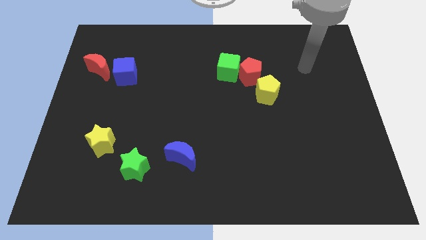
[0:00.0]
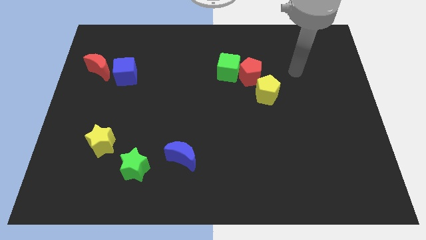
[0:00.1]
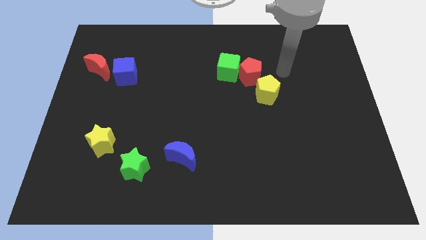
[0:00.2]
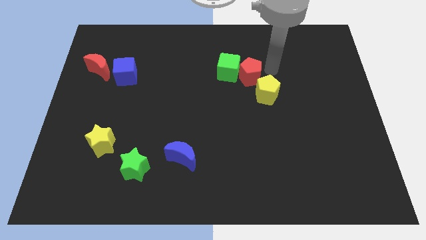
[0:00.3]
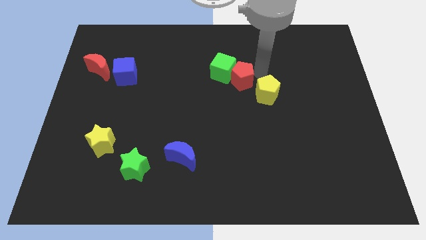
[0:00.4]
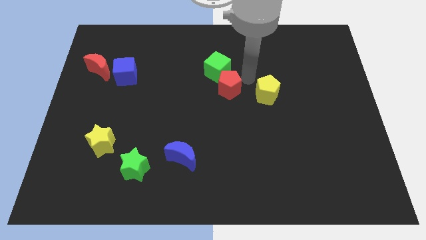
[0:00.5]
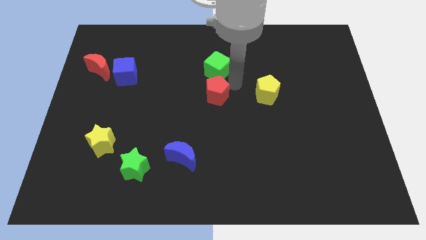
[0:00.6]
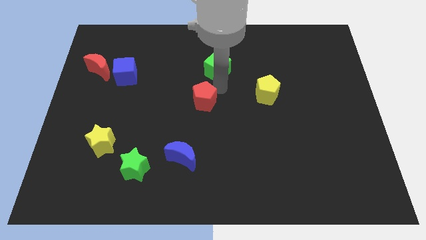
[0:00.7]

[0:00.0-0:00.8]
move the green cube away from the red pentagon

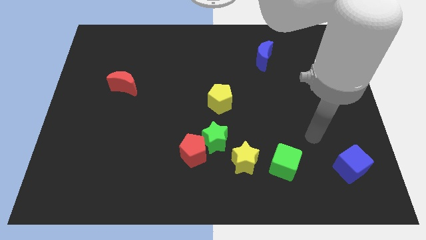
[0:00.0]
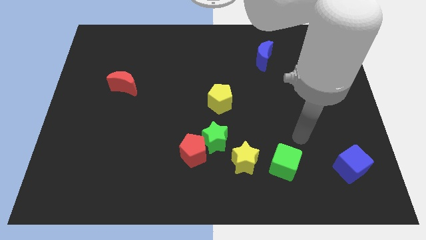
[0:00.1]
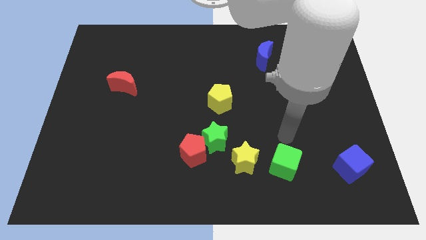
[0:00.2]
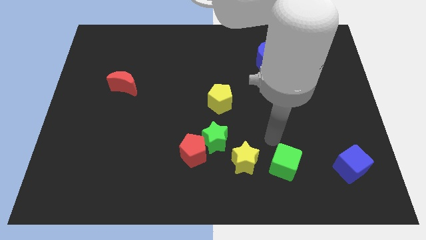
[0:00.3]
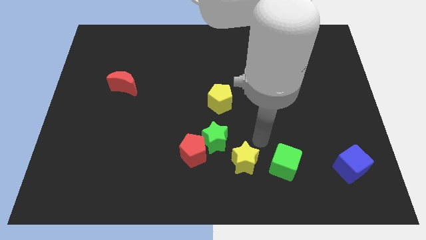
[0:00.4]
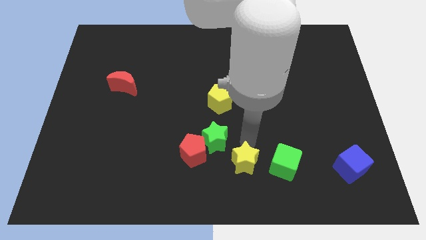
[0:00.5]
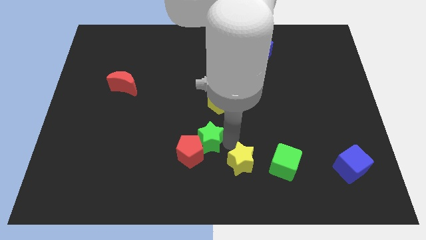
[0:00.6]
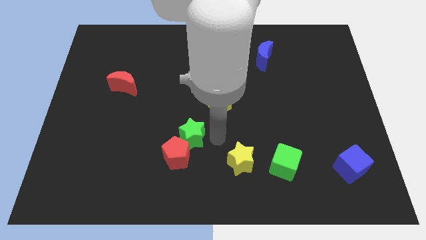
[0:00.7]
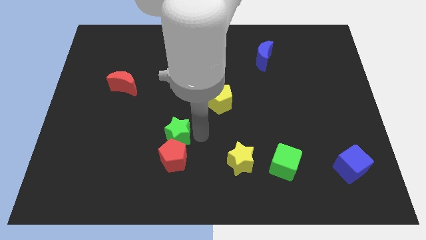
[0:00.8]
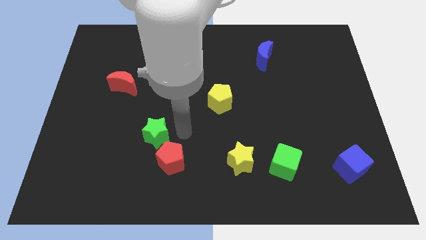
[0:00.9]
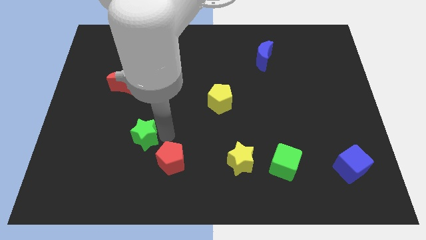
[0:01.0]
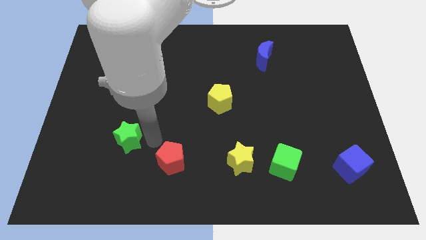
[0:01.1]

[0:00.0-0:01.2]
separate the red pentagon from the green star

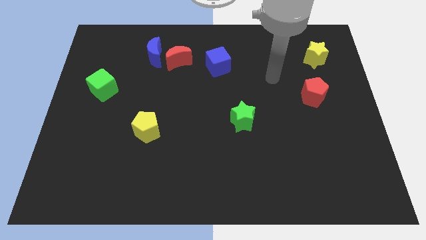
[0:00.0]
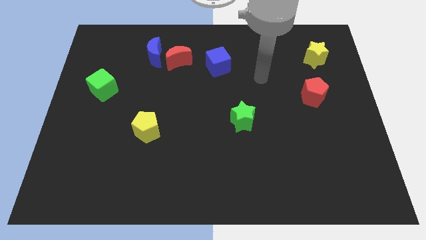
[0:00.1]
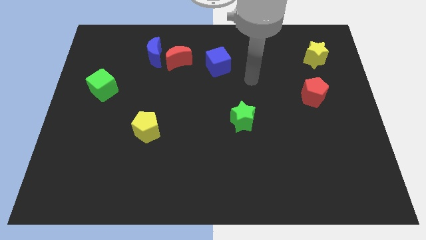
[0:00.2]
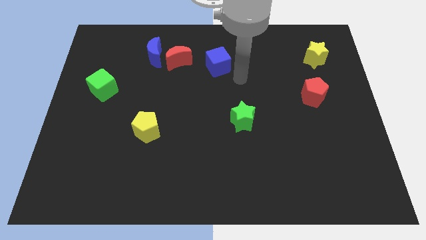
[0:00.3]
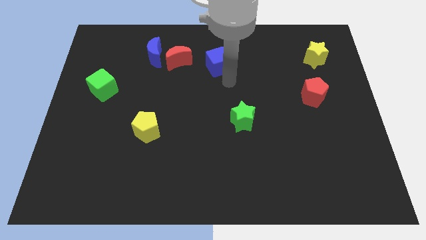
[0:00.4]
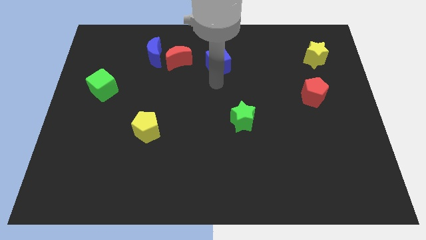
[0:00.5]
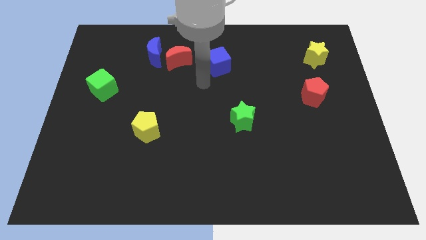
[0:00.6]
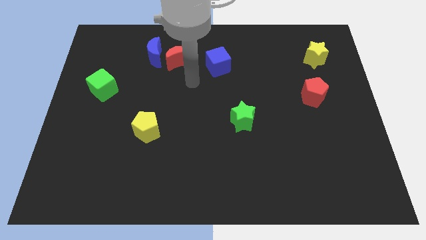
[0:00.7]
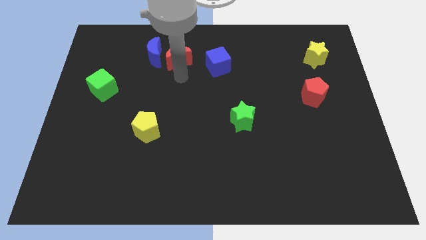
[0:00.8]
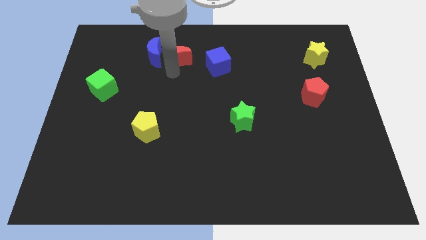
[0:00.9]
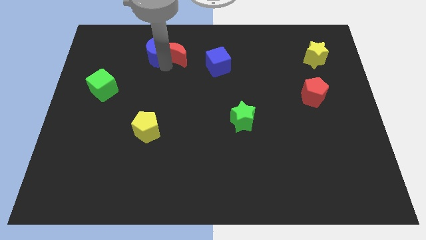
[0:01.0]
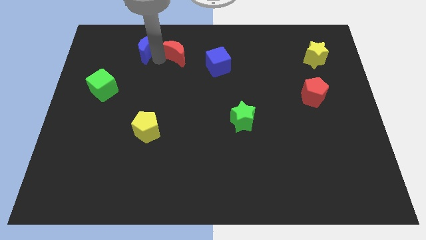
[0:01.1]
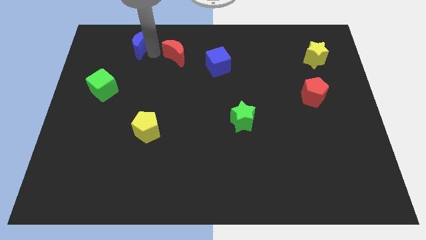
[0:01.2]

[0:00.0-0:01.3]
pull the red moon apart from the blue moon

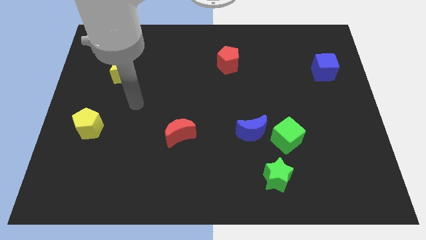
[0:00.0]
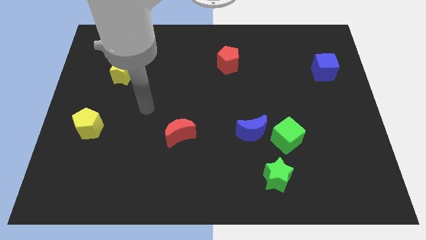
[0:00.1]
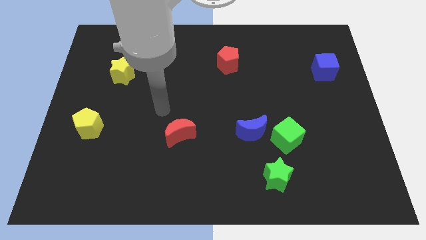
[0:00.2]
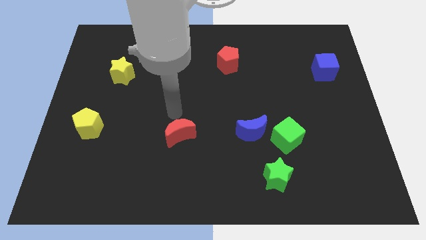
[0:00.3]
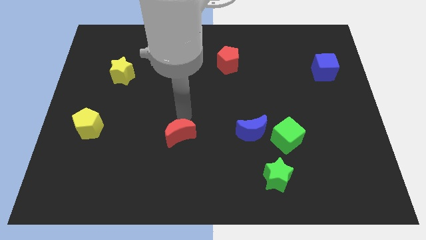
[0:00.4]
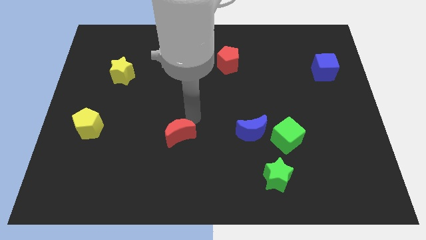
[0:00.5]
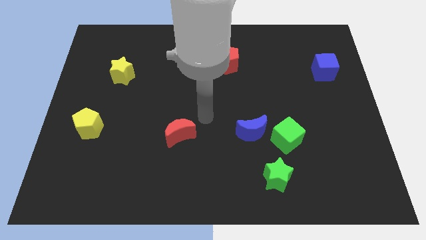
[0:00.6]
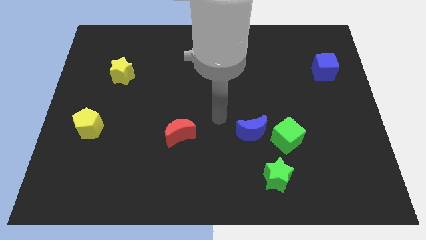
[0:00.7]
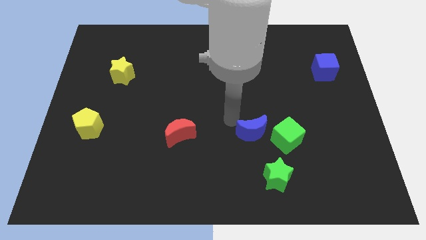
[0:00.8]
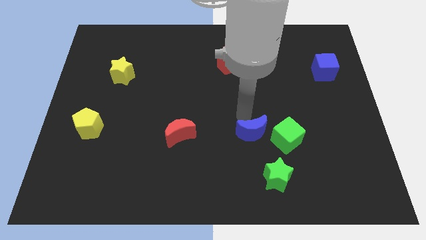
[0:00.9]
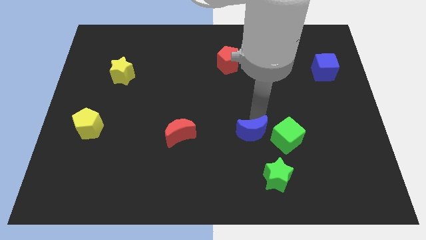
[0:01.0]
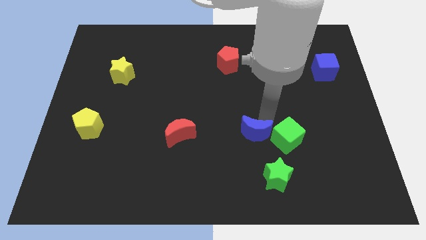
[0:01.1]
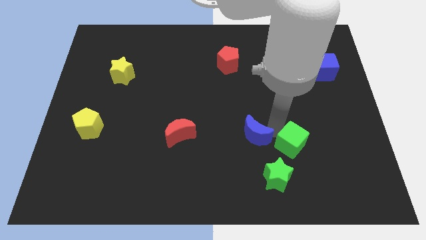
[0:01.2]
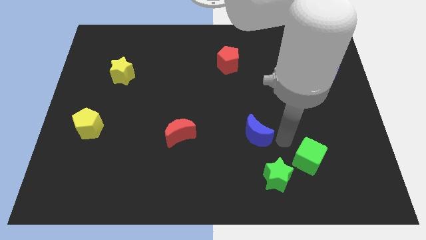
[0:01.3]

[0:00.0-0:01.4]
separate the blue moon from the green cube

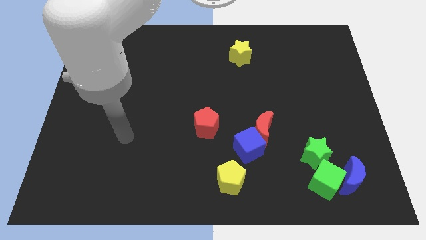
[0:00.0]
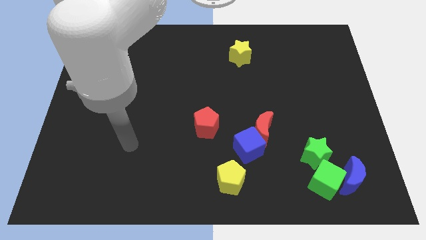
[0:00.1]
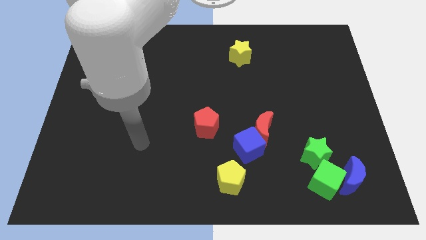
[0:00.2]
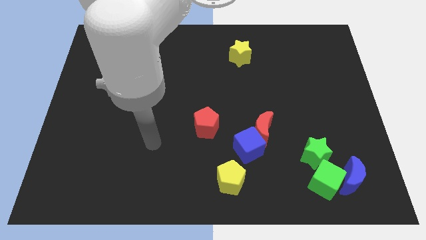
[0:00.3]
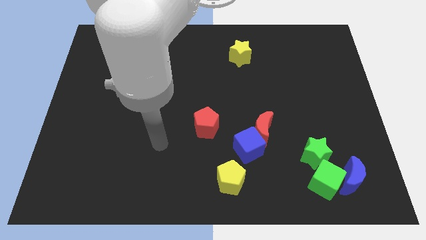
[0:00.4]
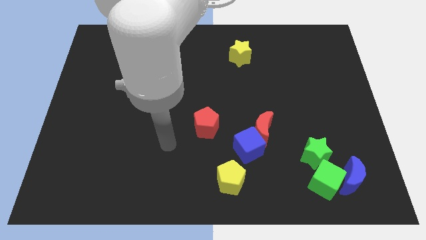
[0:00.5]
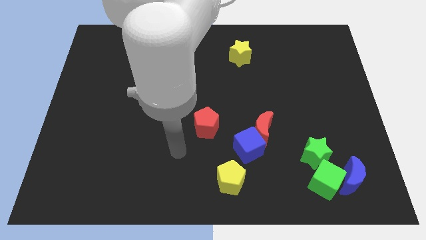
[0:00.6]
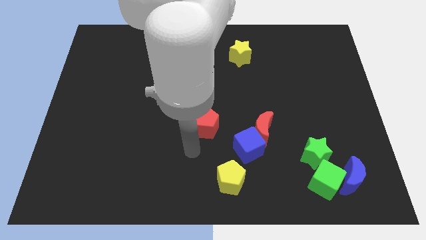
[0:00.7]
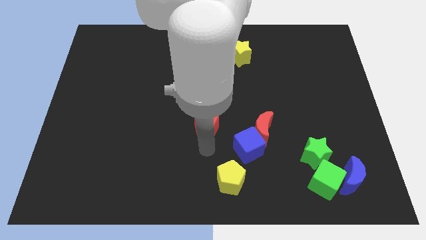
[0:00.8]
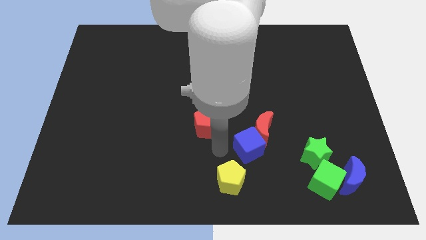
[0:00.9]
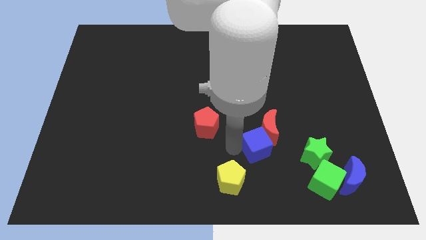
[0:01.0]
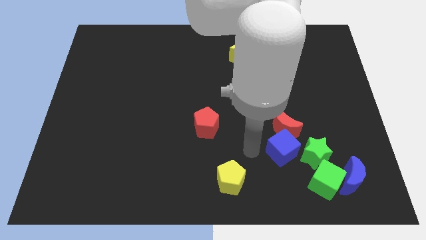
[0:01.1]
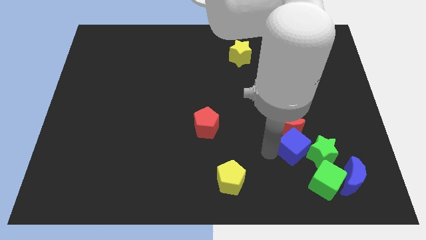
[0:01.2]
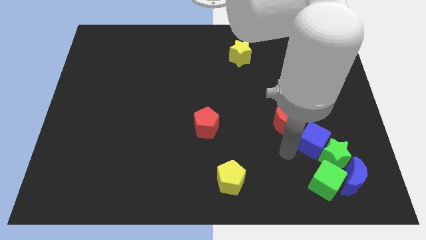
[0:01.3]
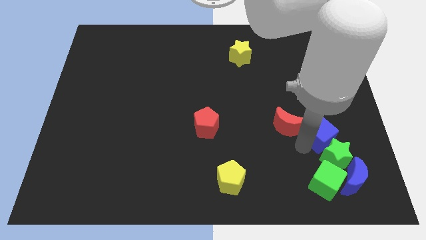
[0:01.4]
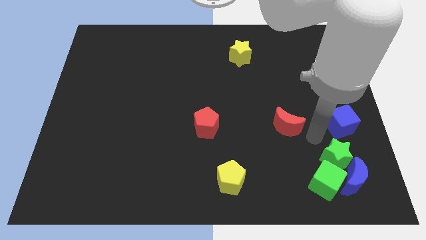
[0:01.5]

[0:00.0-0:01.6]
move the red moon away from the blue cube

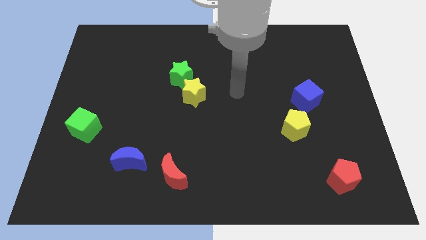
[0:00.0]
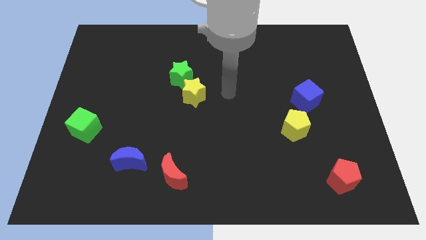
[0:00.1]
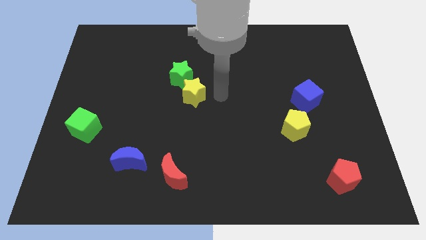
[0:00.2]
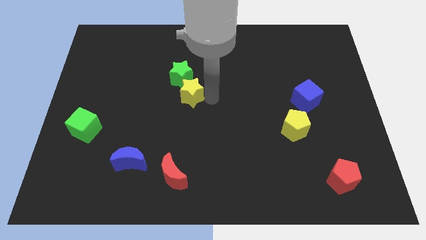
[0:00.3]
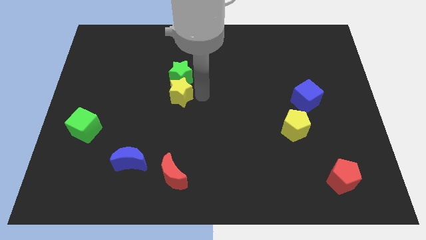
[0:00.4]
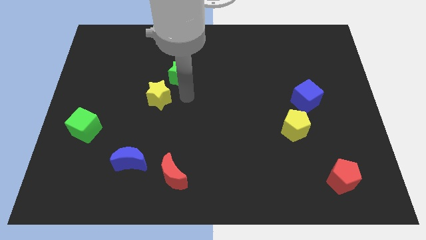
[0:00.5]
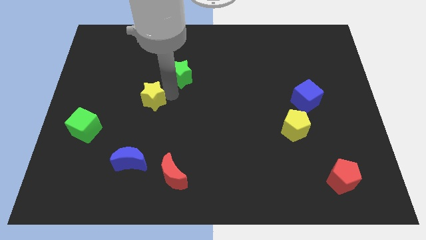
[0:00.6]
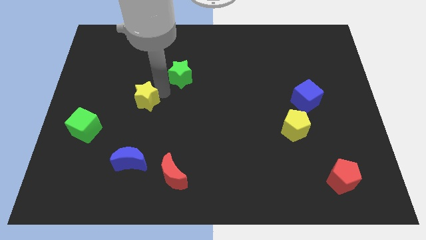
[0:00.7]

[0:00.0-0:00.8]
pull the green star apart from the yellow star

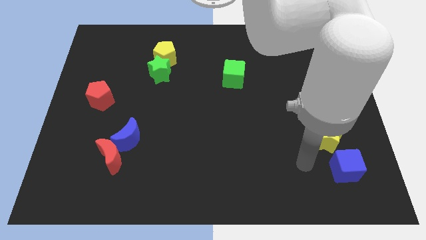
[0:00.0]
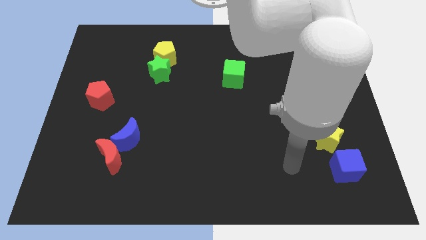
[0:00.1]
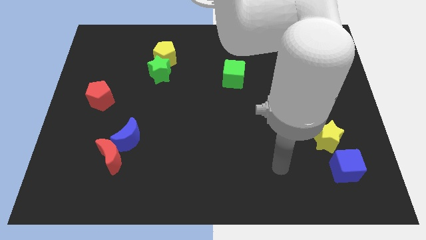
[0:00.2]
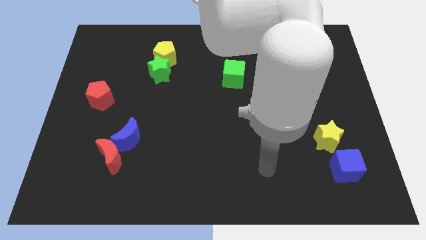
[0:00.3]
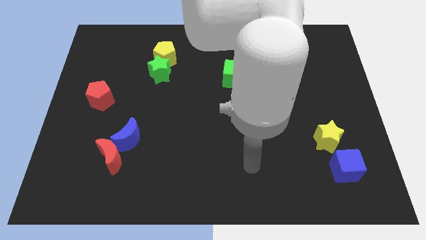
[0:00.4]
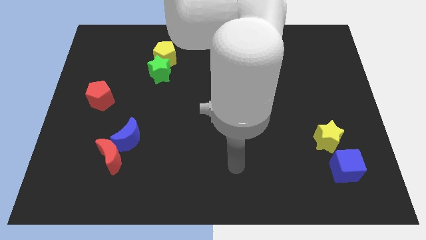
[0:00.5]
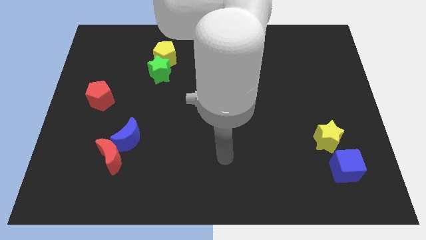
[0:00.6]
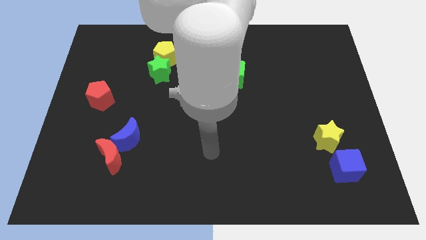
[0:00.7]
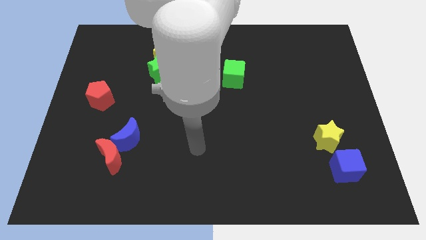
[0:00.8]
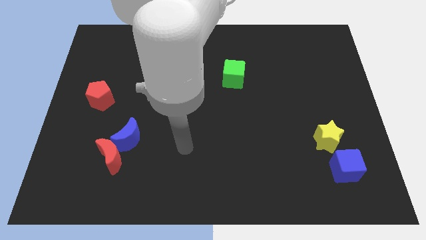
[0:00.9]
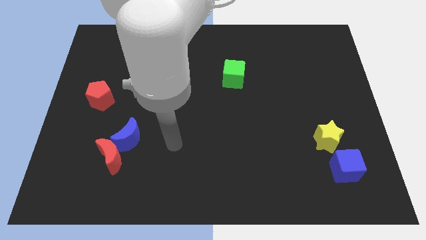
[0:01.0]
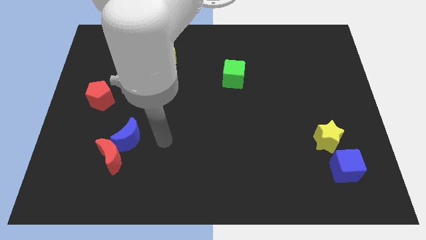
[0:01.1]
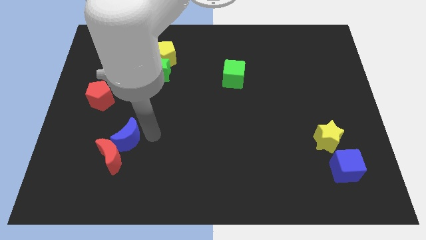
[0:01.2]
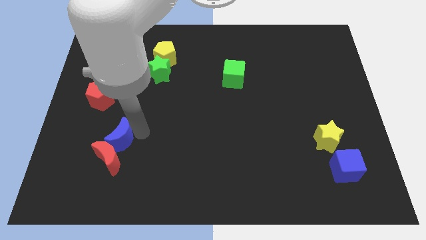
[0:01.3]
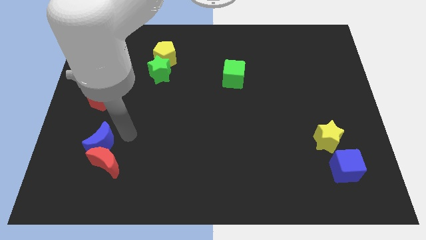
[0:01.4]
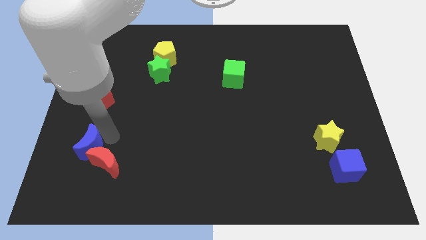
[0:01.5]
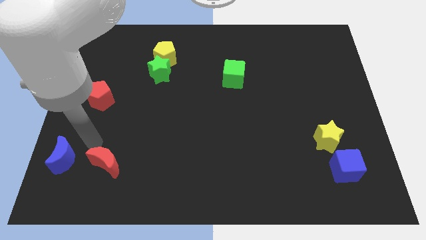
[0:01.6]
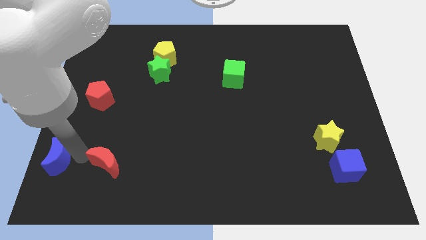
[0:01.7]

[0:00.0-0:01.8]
move the red moon away from the blue moon

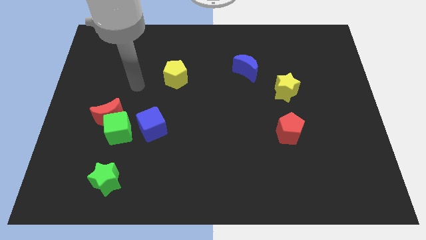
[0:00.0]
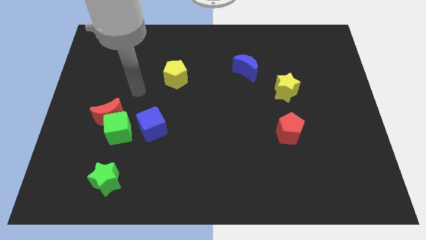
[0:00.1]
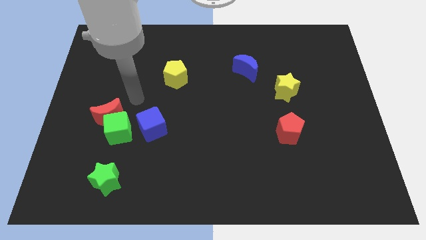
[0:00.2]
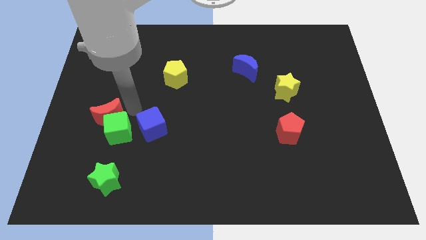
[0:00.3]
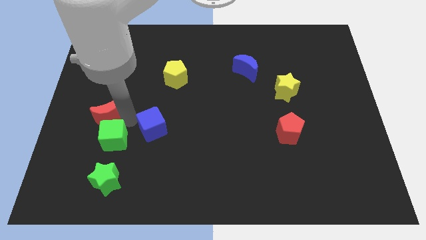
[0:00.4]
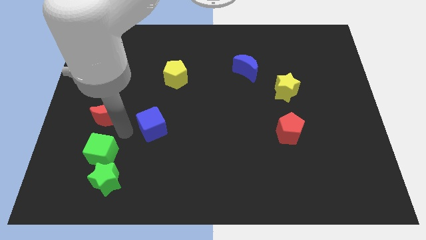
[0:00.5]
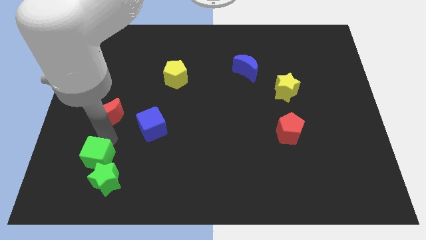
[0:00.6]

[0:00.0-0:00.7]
pull the red moon apart from the green cube
